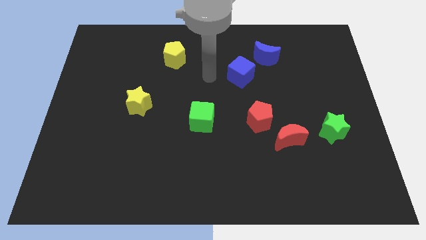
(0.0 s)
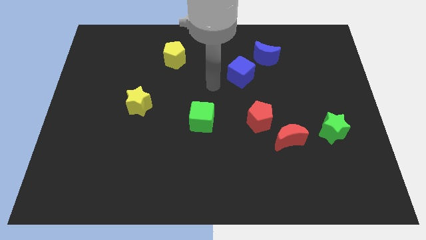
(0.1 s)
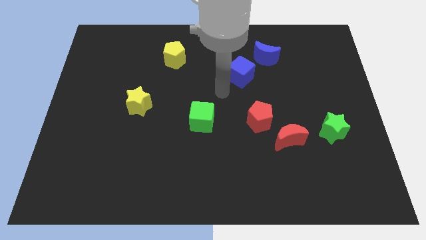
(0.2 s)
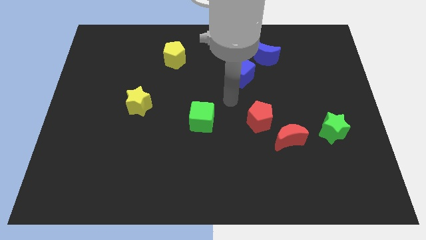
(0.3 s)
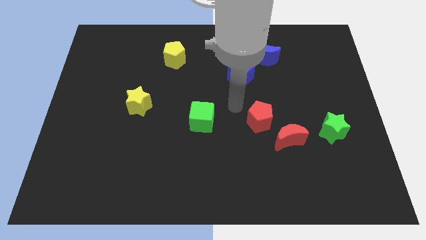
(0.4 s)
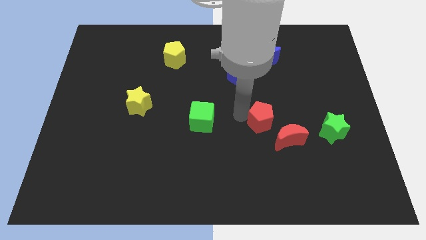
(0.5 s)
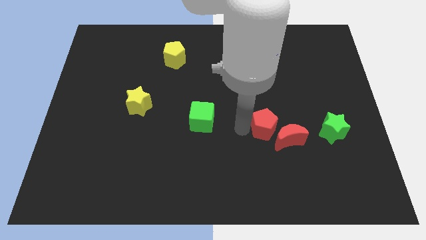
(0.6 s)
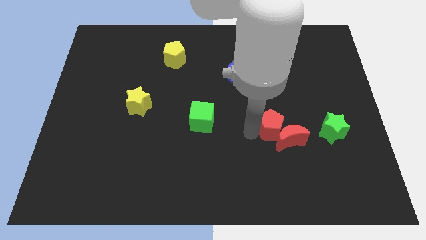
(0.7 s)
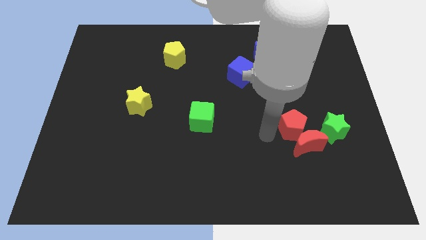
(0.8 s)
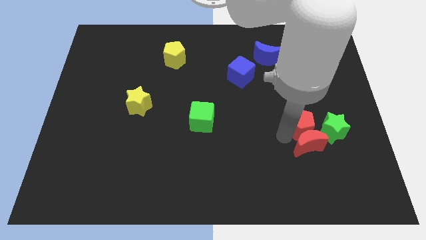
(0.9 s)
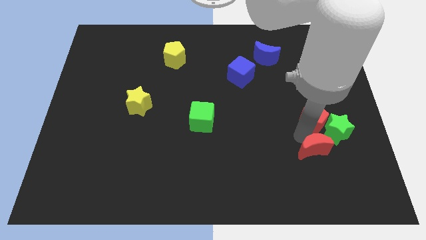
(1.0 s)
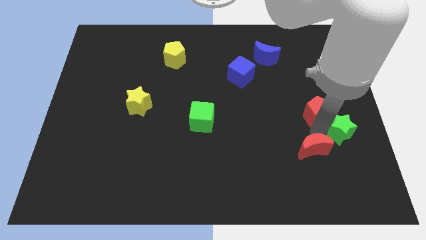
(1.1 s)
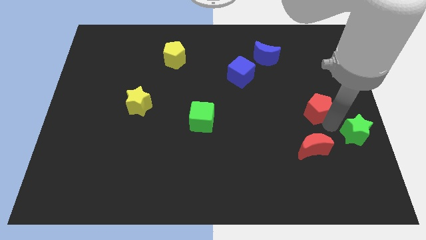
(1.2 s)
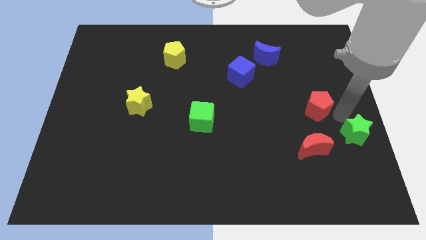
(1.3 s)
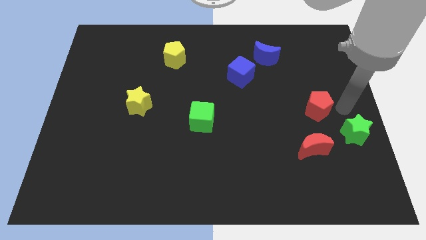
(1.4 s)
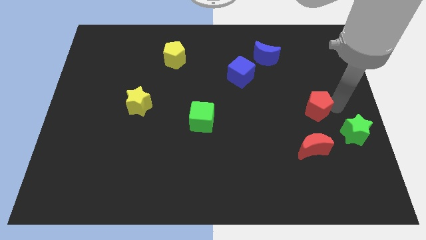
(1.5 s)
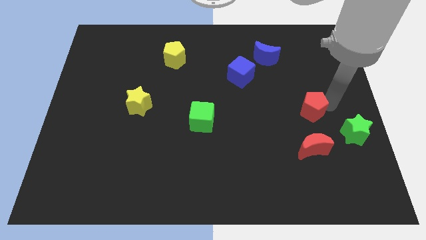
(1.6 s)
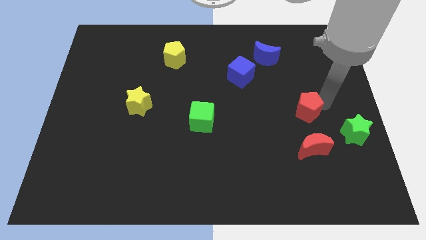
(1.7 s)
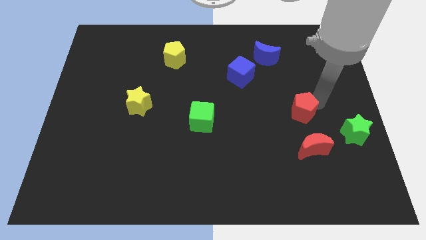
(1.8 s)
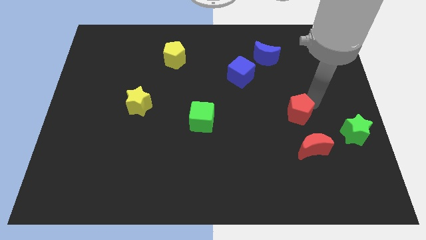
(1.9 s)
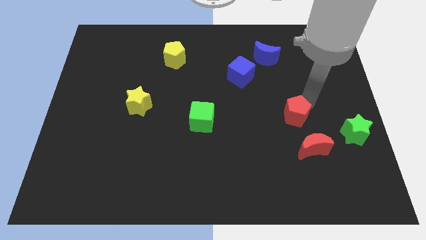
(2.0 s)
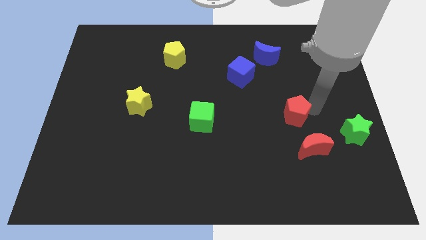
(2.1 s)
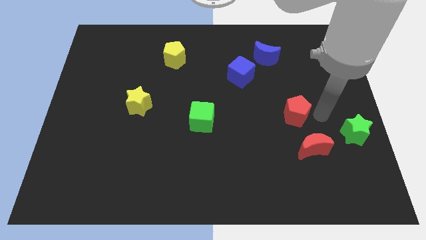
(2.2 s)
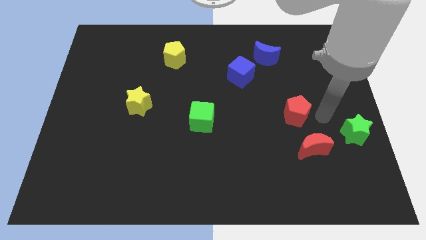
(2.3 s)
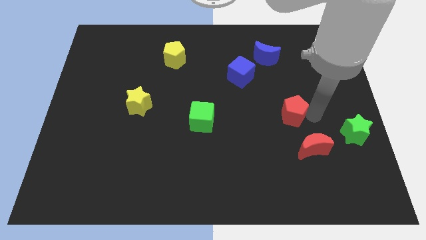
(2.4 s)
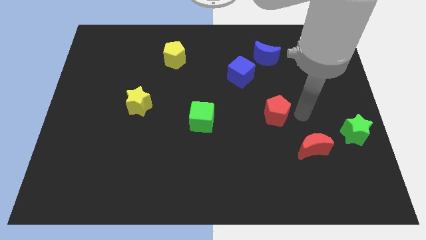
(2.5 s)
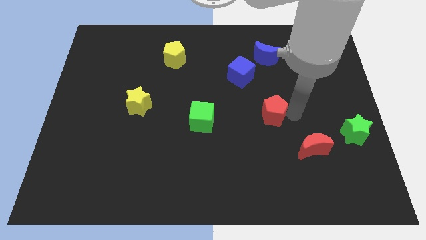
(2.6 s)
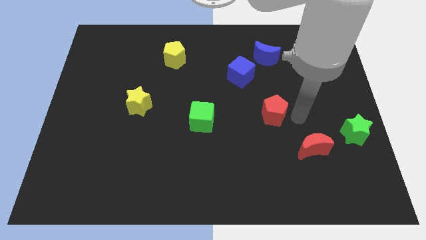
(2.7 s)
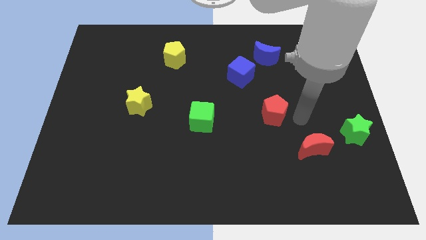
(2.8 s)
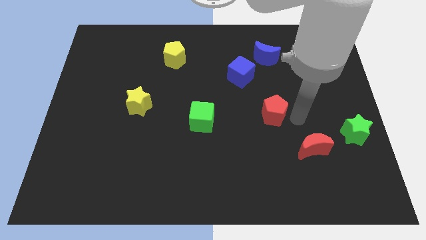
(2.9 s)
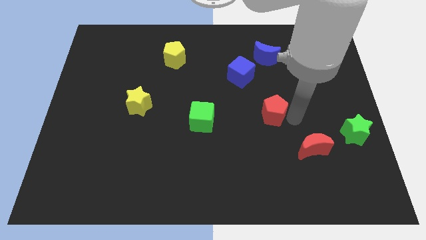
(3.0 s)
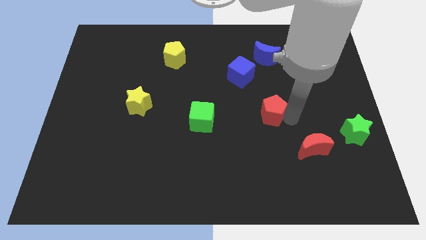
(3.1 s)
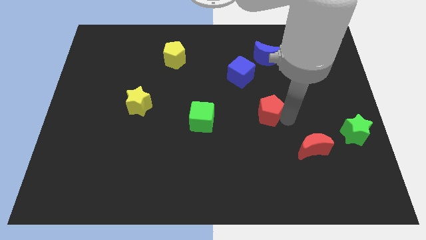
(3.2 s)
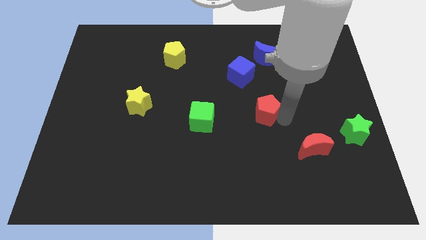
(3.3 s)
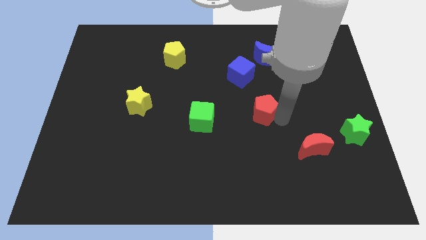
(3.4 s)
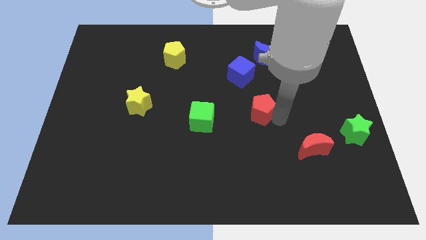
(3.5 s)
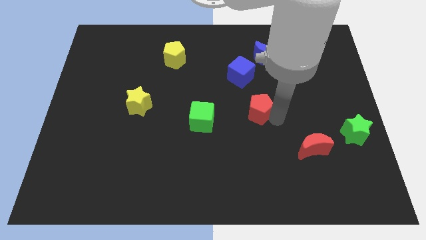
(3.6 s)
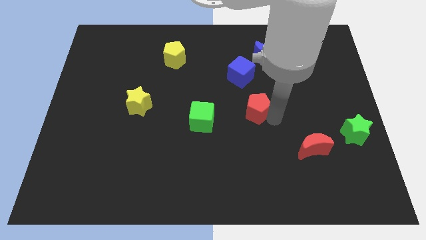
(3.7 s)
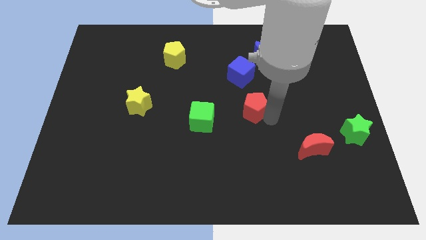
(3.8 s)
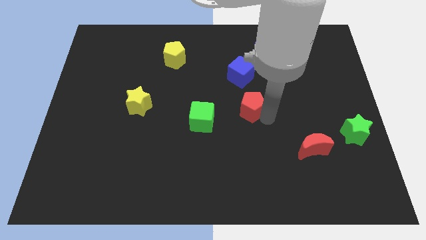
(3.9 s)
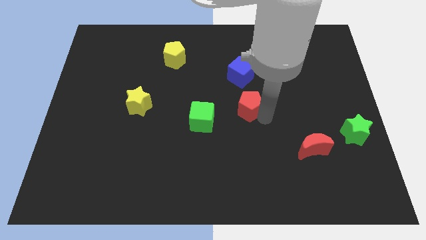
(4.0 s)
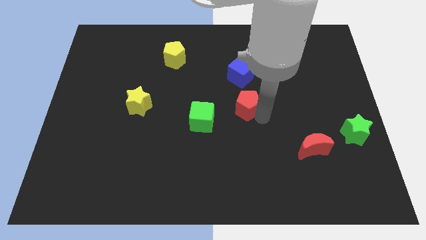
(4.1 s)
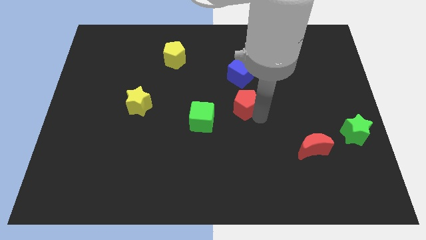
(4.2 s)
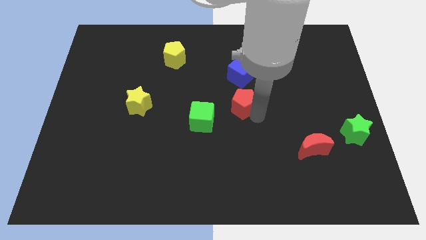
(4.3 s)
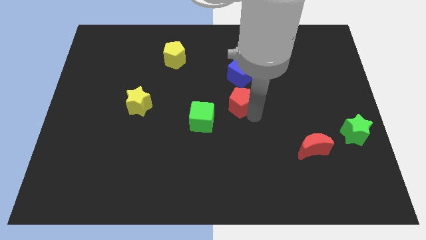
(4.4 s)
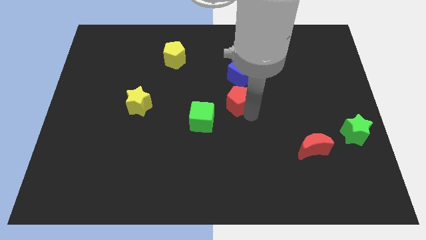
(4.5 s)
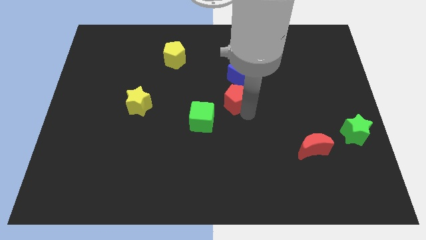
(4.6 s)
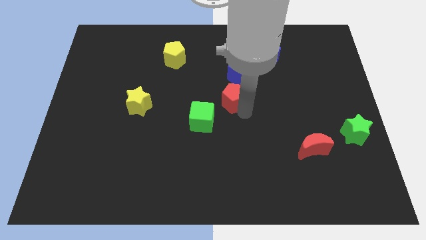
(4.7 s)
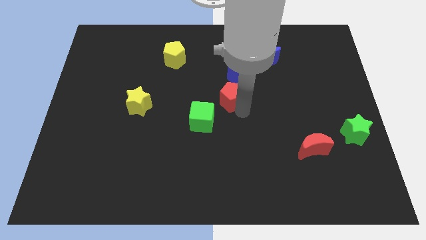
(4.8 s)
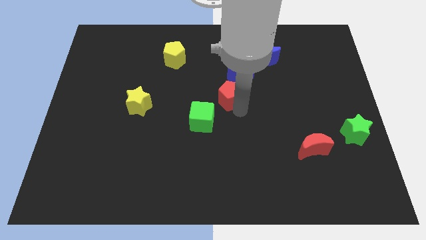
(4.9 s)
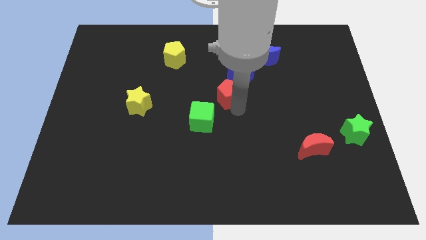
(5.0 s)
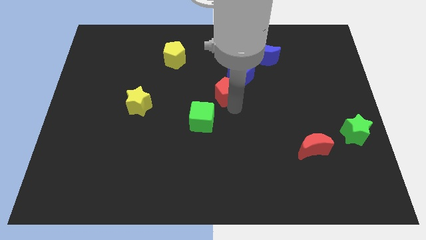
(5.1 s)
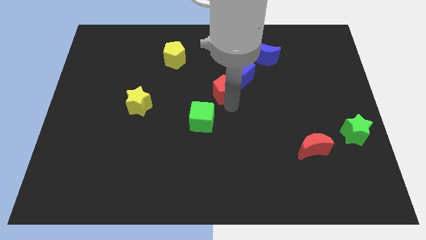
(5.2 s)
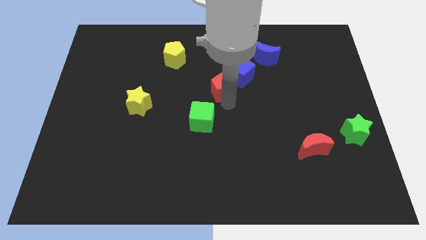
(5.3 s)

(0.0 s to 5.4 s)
put the red pentagon to the left side of the blue cube

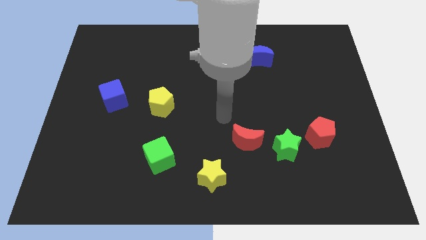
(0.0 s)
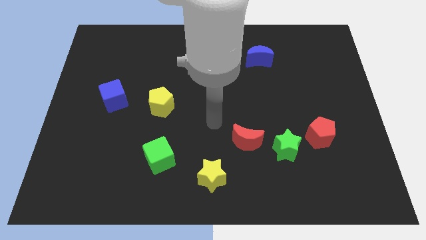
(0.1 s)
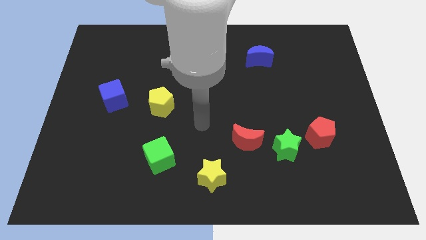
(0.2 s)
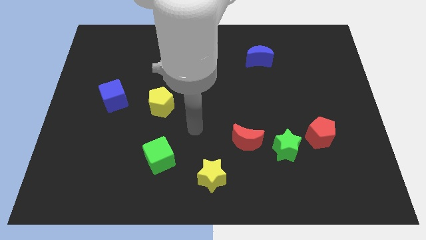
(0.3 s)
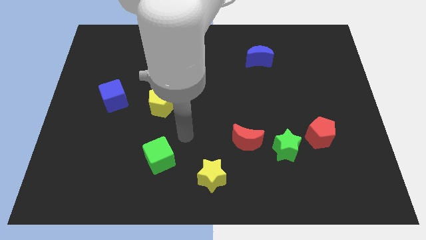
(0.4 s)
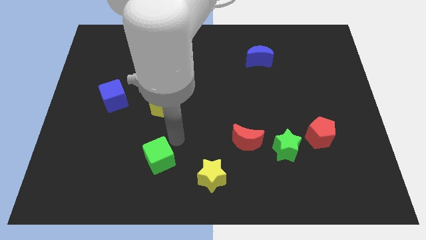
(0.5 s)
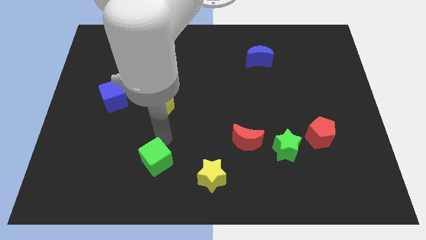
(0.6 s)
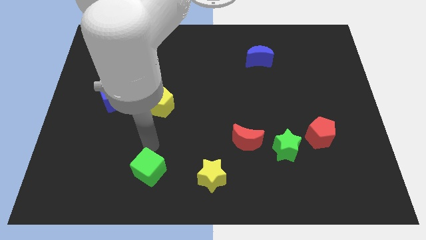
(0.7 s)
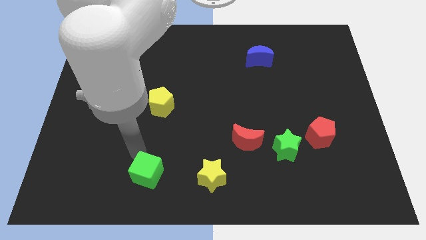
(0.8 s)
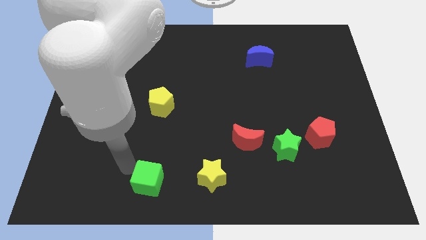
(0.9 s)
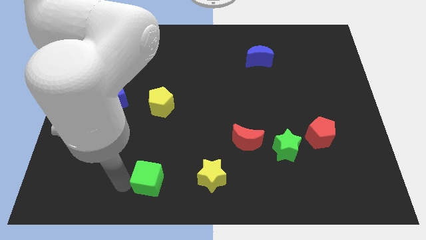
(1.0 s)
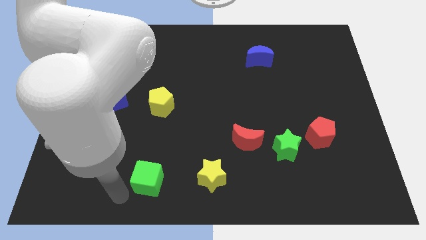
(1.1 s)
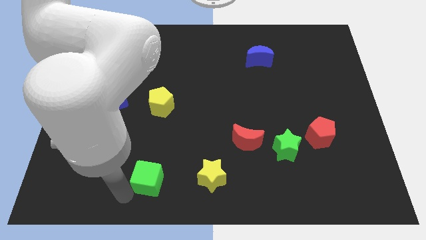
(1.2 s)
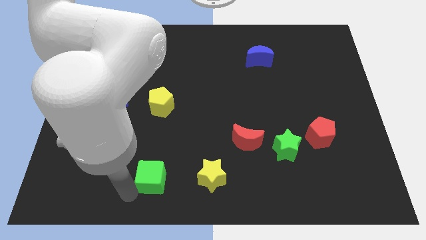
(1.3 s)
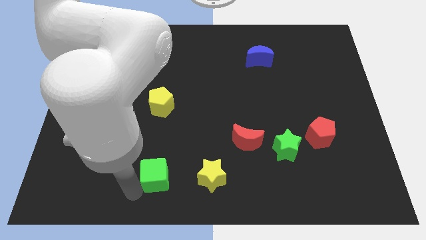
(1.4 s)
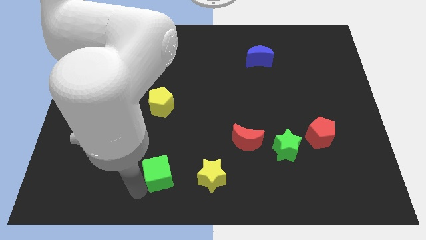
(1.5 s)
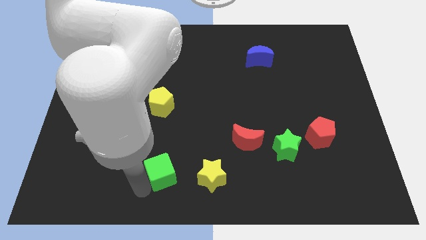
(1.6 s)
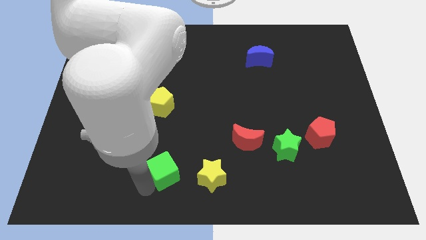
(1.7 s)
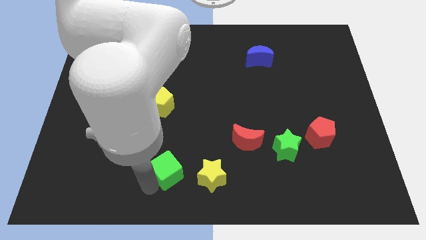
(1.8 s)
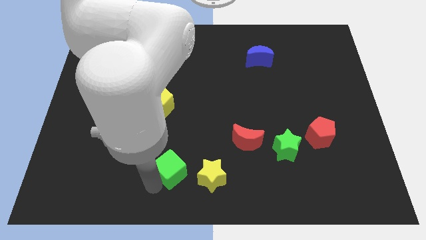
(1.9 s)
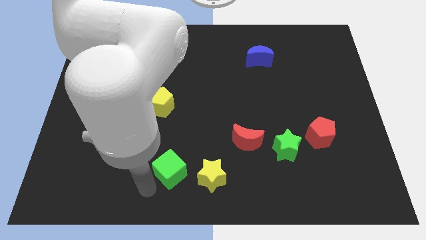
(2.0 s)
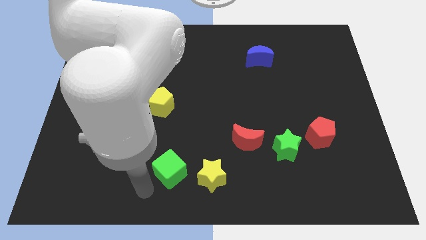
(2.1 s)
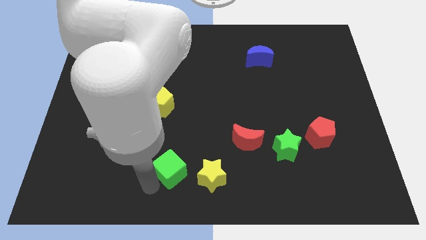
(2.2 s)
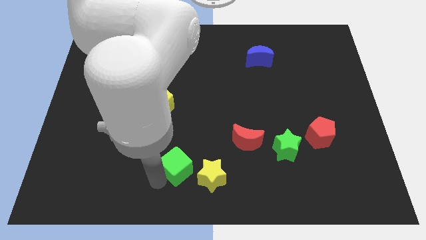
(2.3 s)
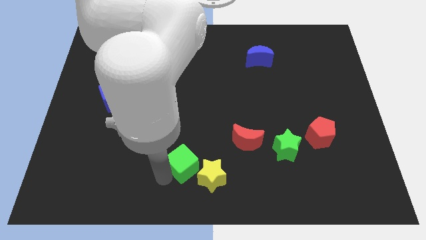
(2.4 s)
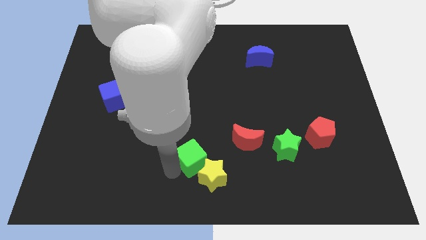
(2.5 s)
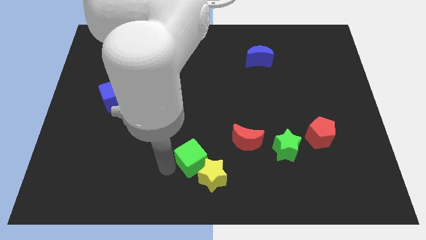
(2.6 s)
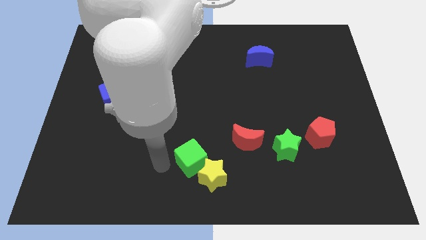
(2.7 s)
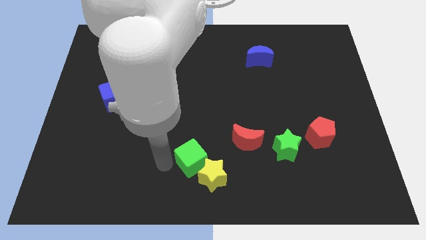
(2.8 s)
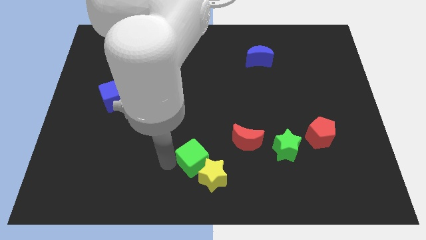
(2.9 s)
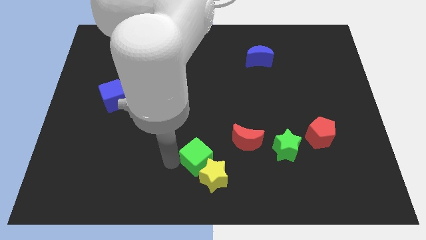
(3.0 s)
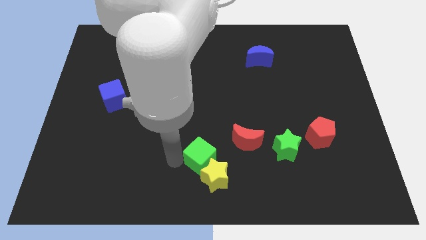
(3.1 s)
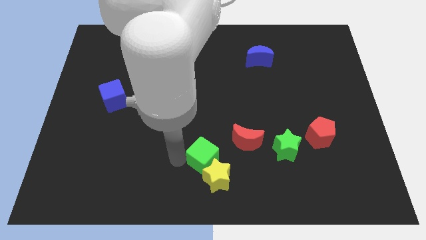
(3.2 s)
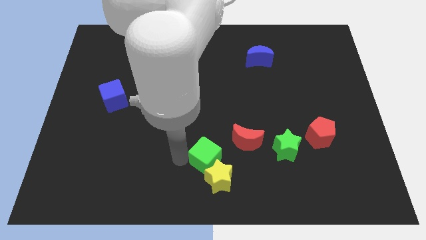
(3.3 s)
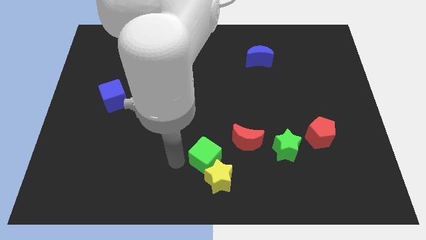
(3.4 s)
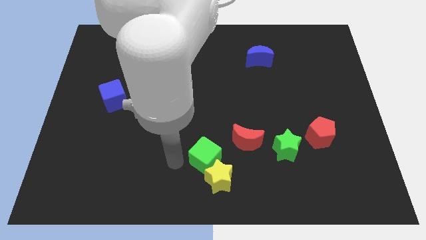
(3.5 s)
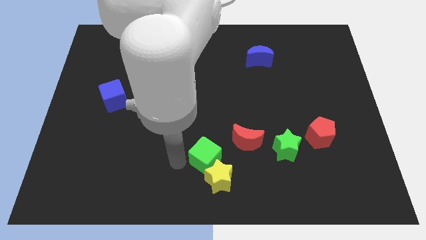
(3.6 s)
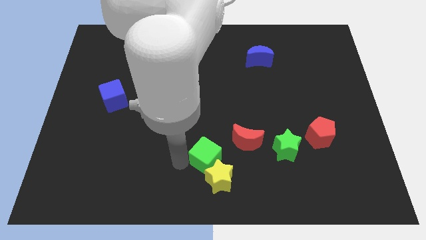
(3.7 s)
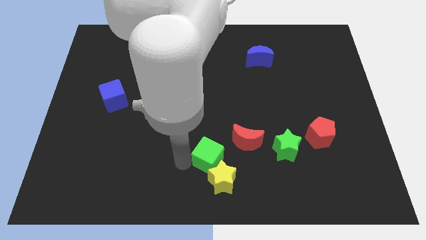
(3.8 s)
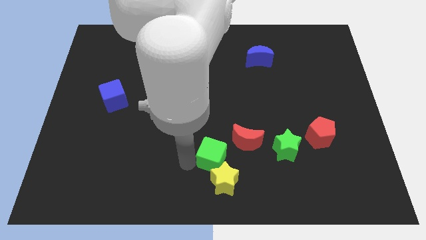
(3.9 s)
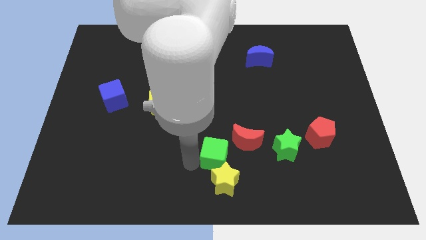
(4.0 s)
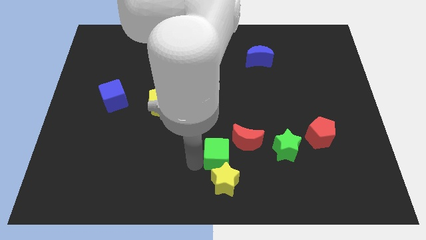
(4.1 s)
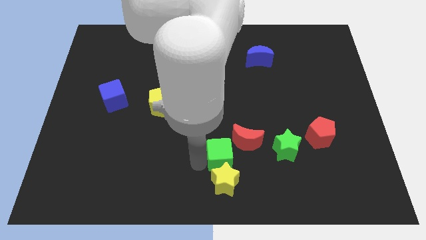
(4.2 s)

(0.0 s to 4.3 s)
push the green cube diagonally up and to the right of the yellow star
